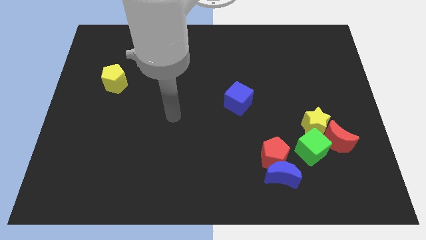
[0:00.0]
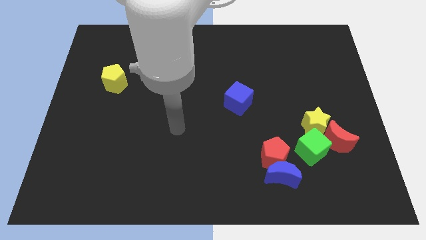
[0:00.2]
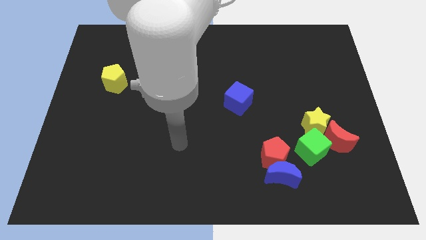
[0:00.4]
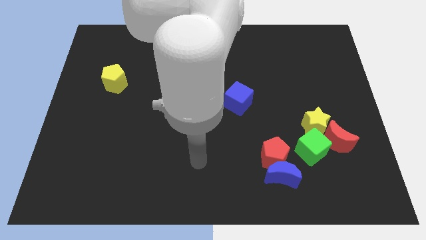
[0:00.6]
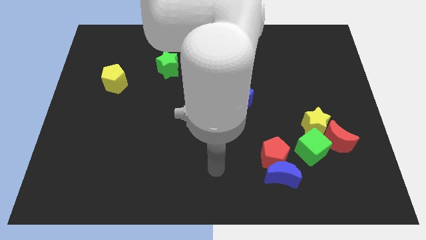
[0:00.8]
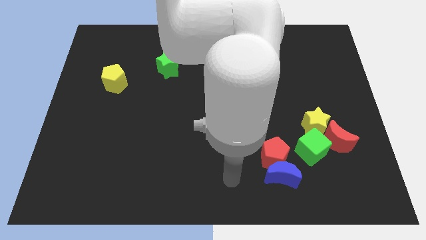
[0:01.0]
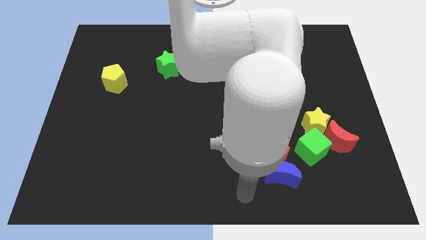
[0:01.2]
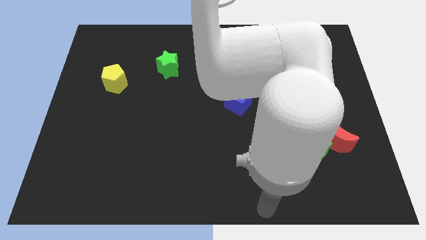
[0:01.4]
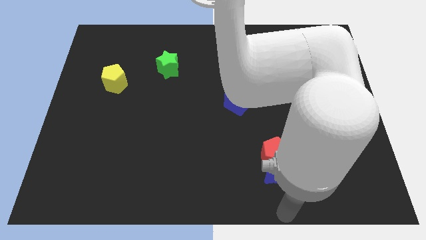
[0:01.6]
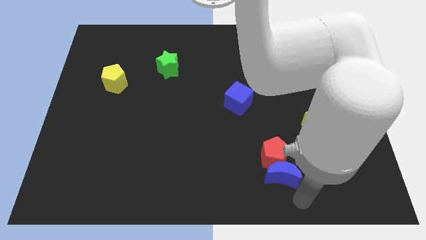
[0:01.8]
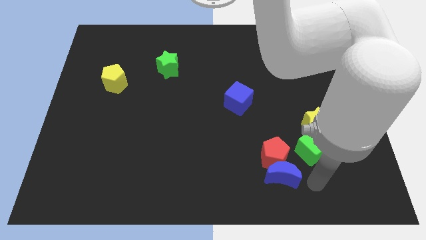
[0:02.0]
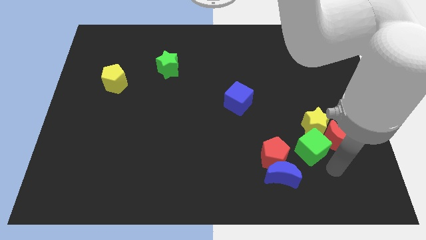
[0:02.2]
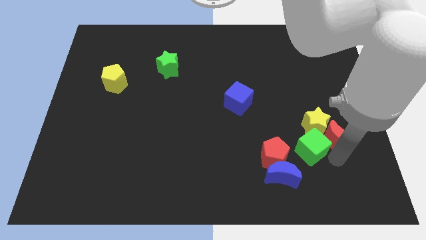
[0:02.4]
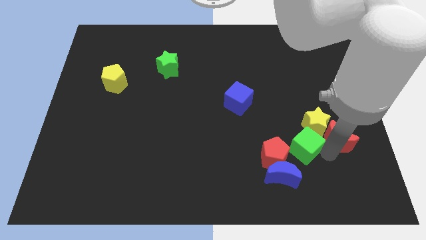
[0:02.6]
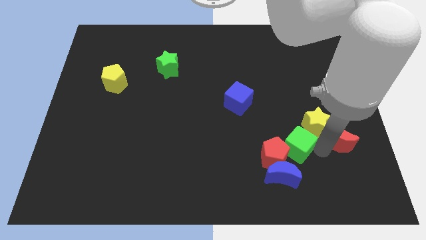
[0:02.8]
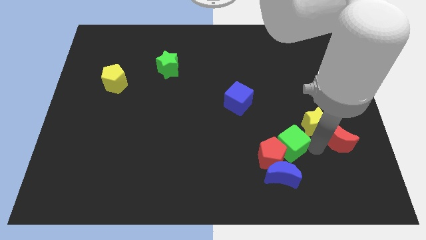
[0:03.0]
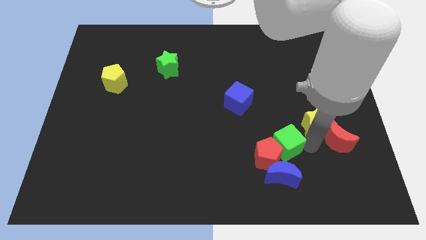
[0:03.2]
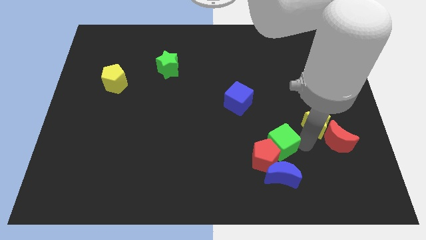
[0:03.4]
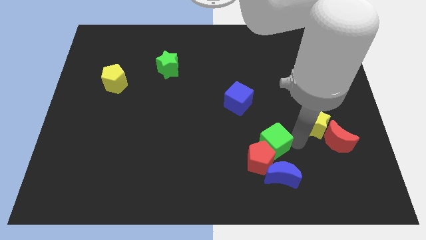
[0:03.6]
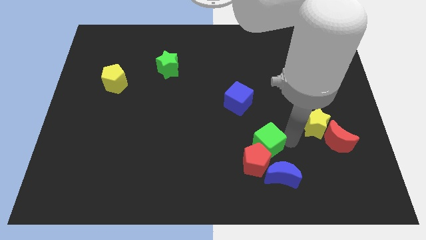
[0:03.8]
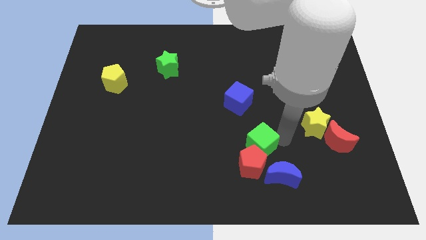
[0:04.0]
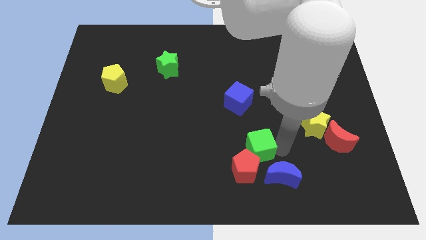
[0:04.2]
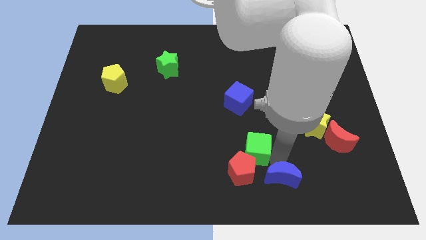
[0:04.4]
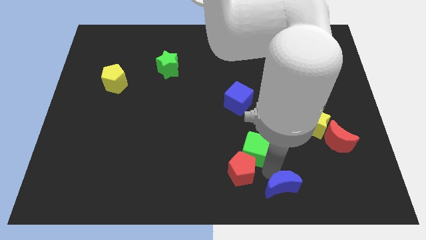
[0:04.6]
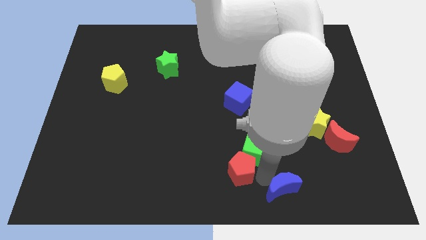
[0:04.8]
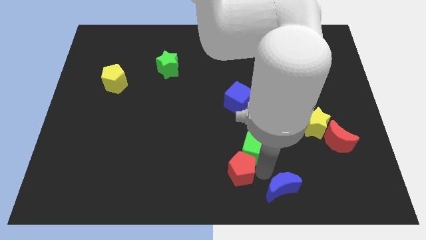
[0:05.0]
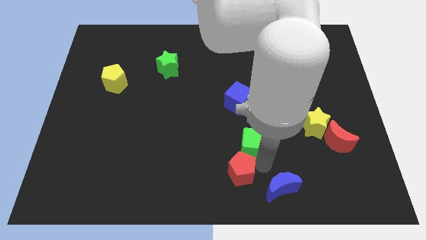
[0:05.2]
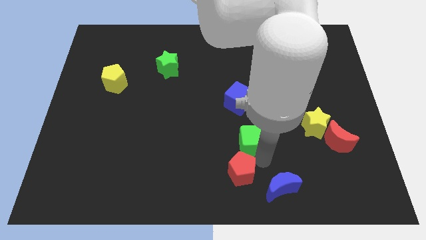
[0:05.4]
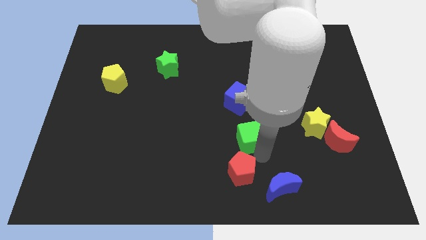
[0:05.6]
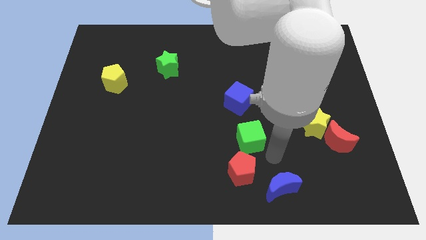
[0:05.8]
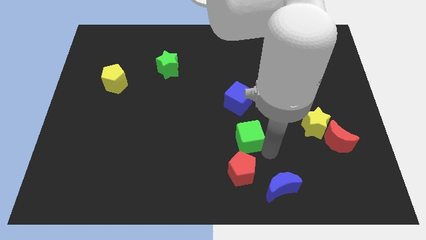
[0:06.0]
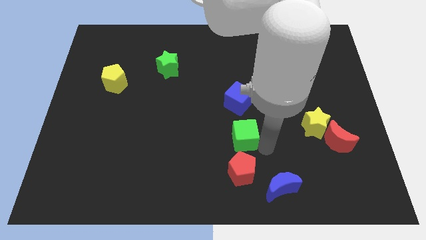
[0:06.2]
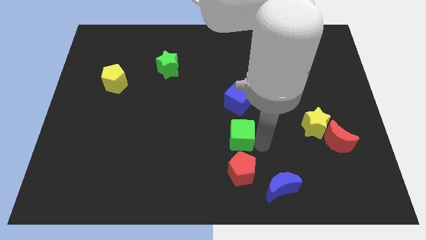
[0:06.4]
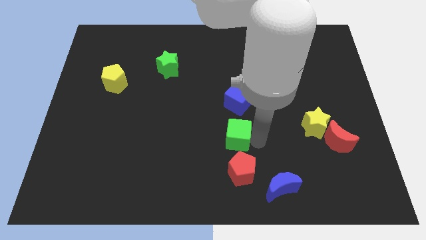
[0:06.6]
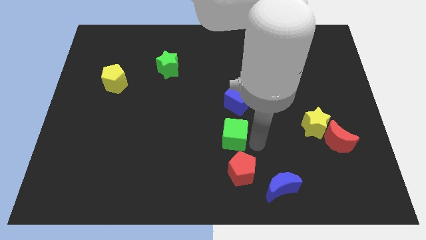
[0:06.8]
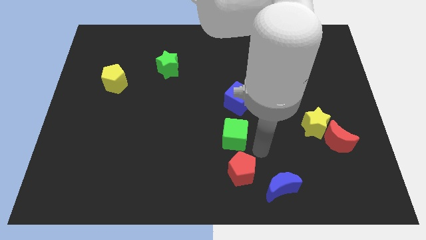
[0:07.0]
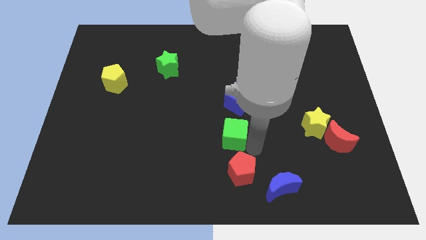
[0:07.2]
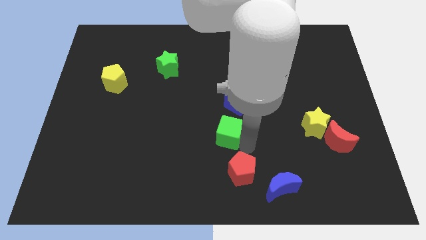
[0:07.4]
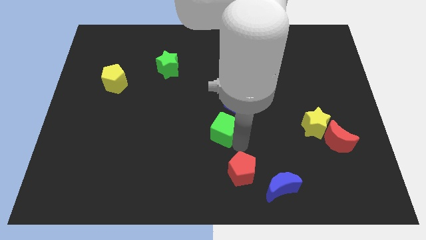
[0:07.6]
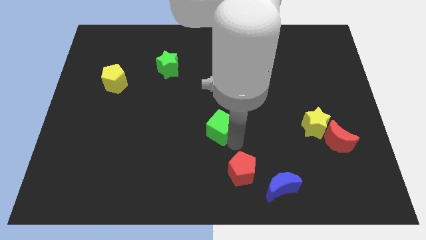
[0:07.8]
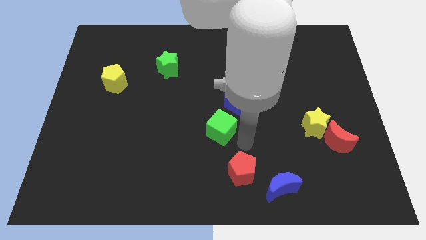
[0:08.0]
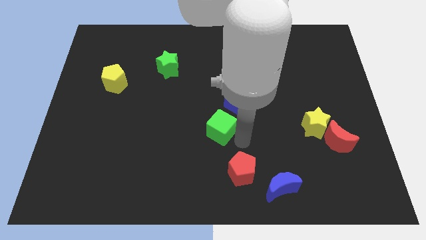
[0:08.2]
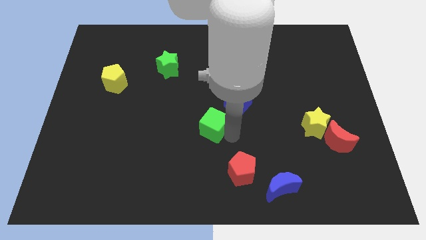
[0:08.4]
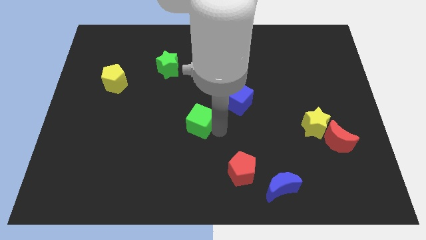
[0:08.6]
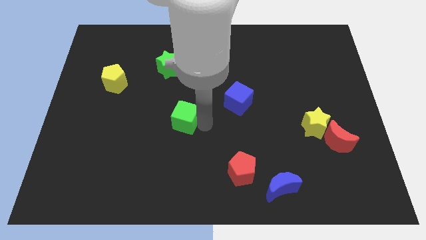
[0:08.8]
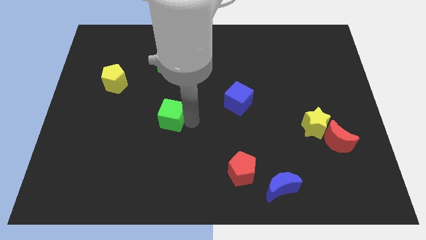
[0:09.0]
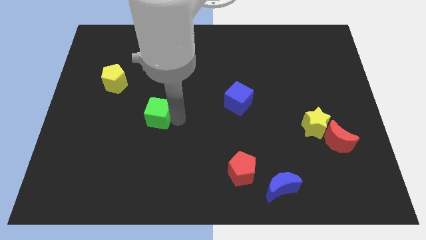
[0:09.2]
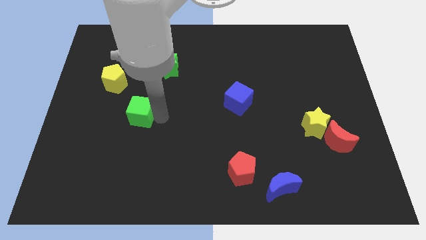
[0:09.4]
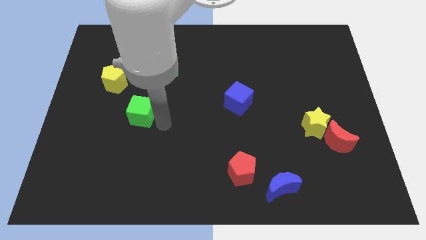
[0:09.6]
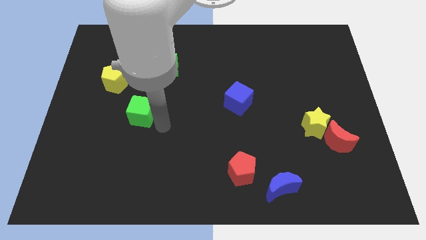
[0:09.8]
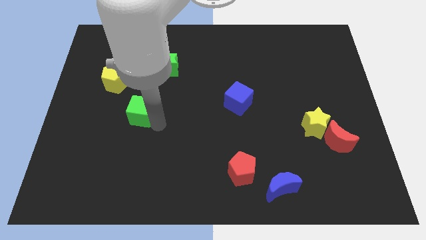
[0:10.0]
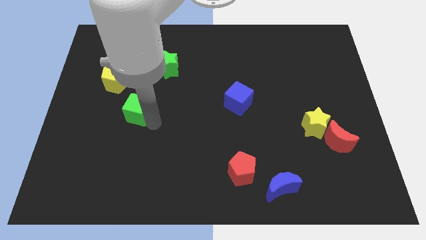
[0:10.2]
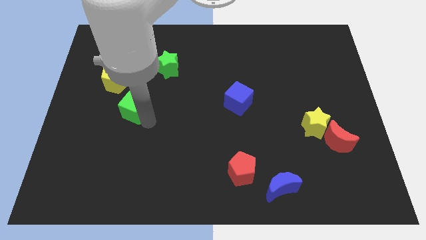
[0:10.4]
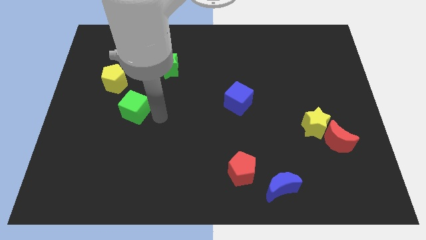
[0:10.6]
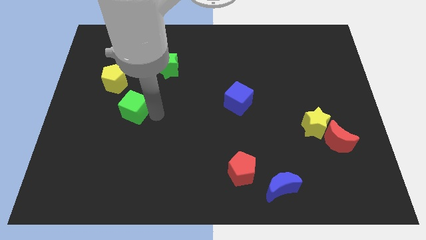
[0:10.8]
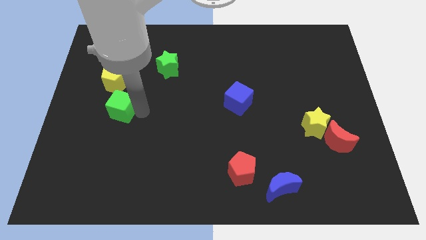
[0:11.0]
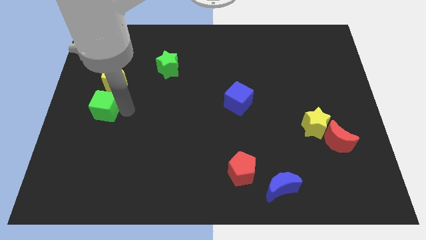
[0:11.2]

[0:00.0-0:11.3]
push the green cube to the left side
